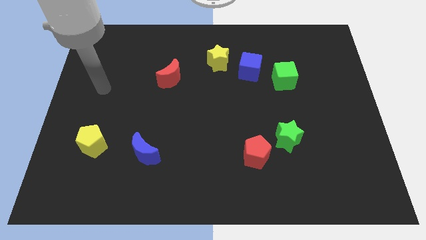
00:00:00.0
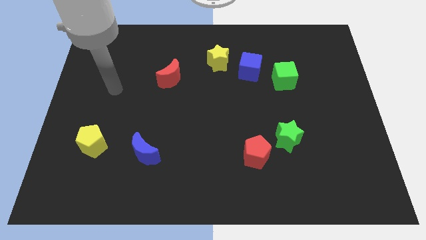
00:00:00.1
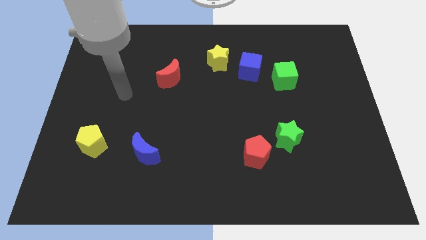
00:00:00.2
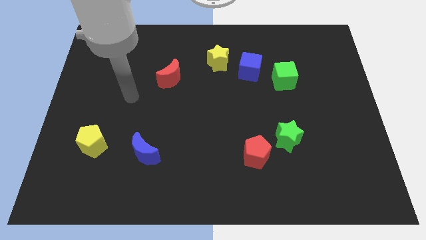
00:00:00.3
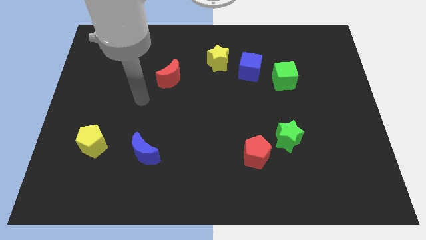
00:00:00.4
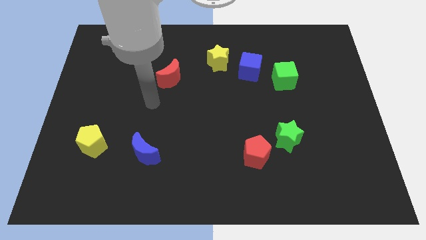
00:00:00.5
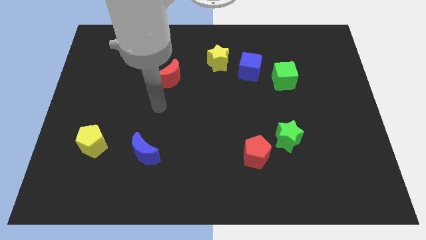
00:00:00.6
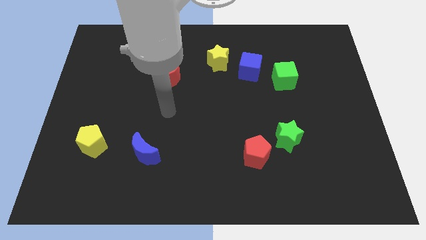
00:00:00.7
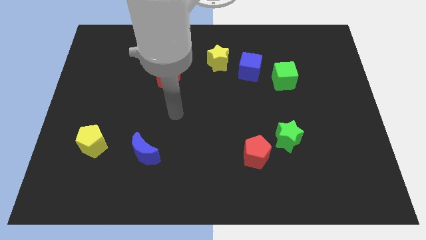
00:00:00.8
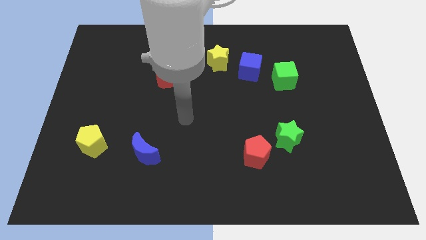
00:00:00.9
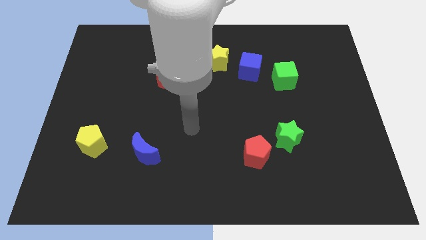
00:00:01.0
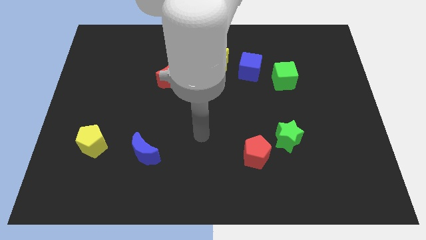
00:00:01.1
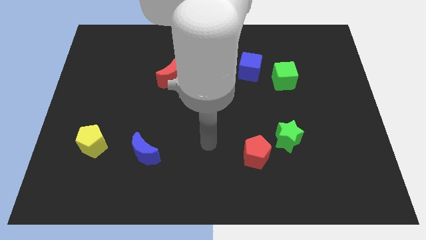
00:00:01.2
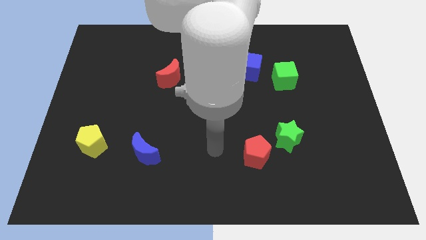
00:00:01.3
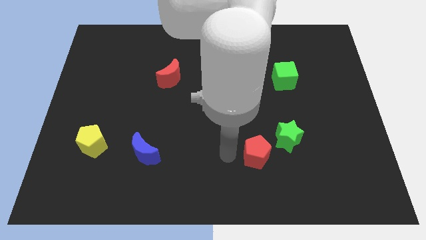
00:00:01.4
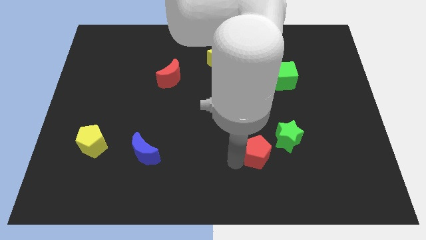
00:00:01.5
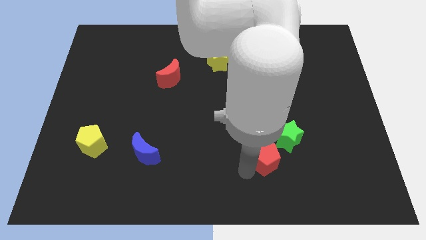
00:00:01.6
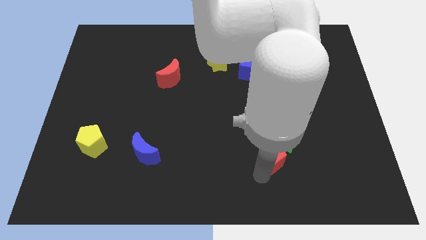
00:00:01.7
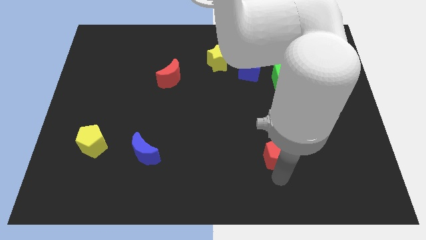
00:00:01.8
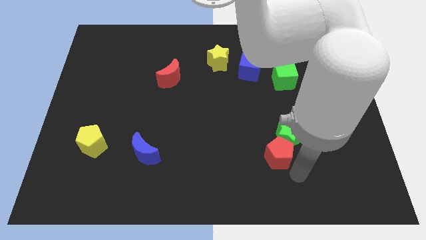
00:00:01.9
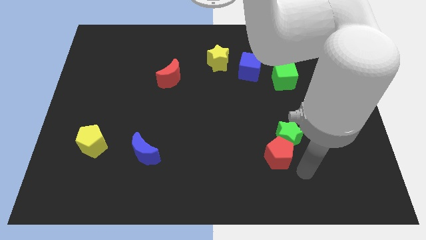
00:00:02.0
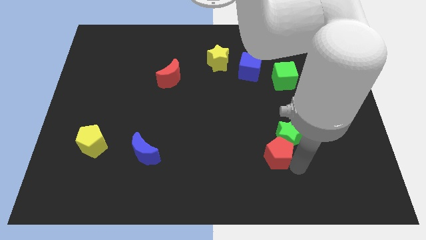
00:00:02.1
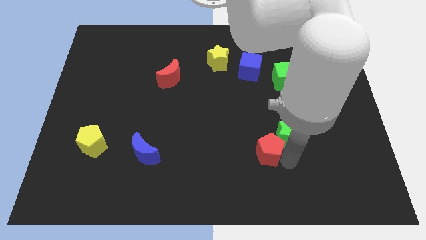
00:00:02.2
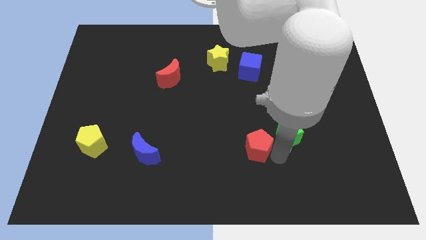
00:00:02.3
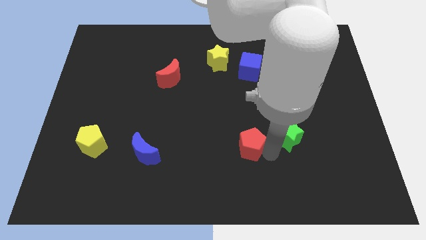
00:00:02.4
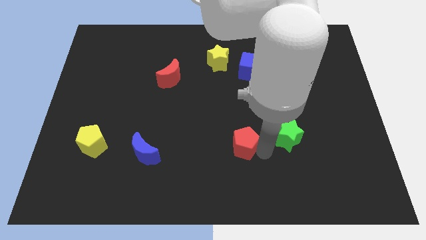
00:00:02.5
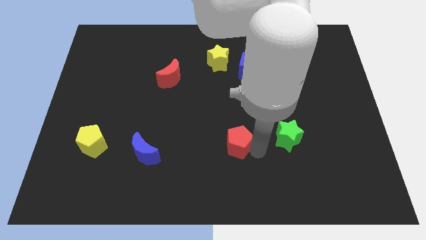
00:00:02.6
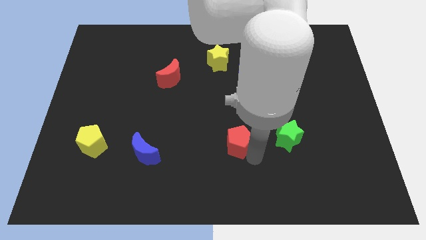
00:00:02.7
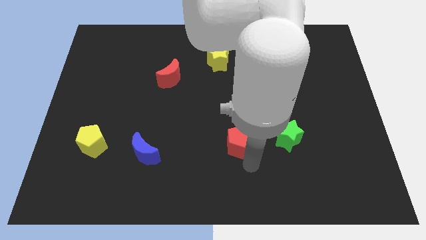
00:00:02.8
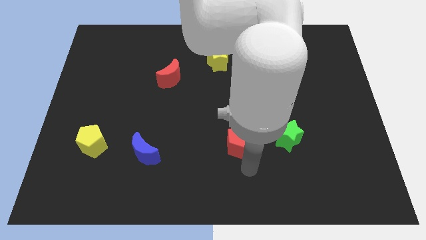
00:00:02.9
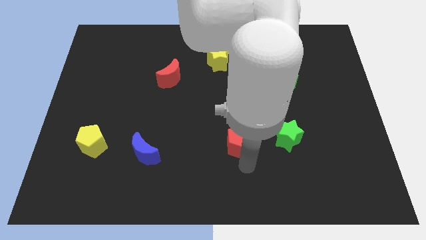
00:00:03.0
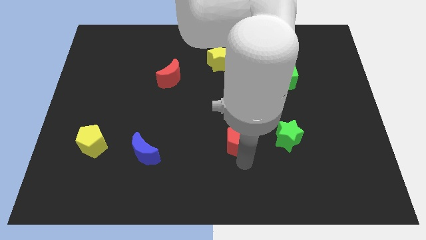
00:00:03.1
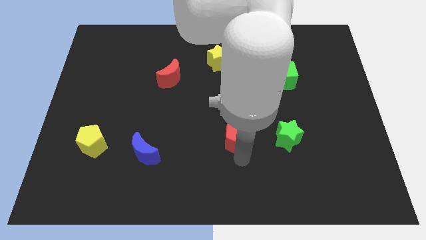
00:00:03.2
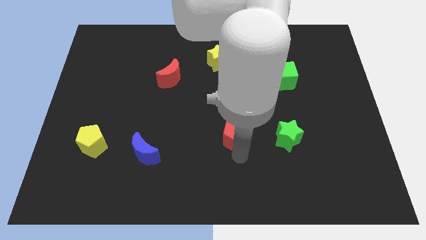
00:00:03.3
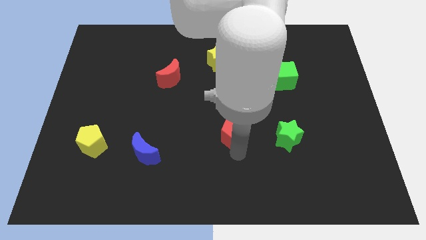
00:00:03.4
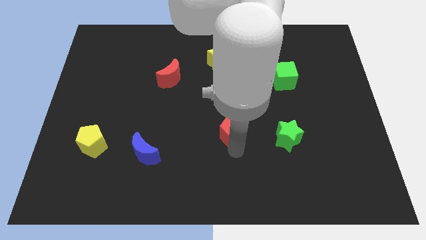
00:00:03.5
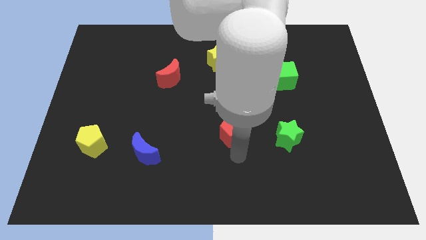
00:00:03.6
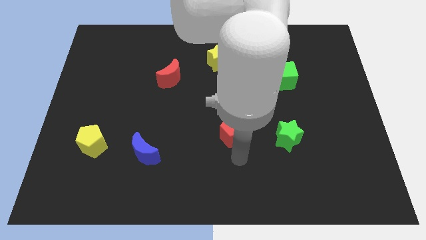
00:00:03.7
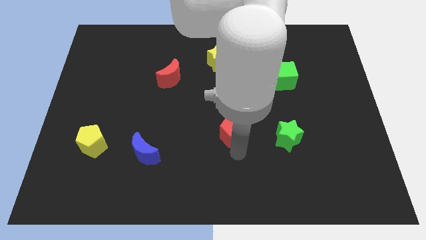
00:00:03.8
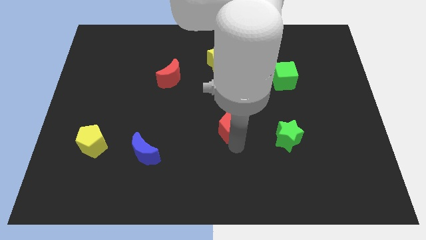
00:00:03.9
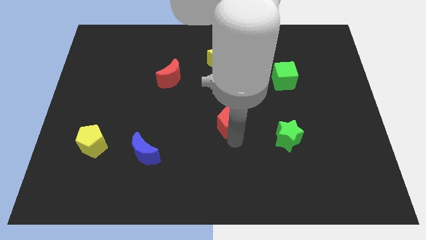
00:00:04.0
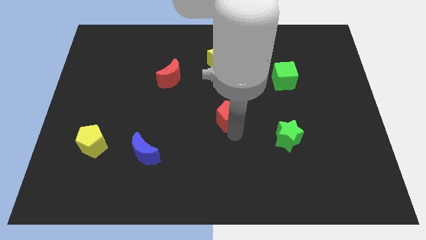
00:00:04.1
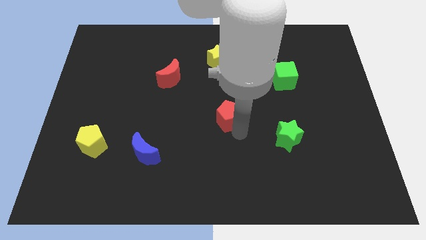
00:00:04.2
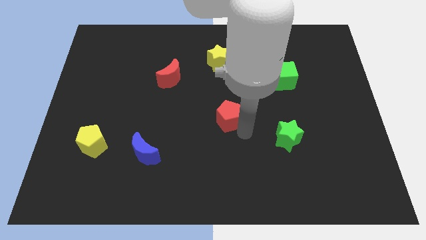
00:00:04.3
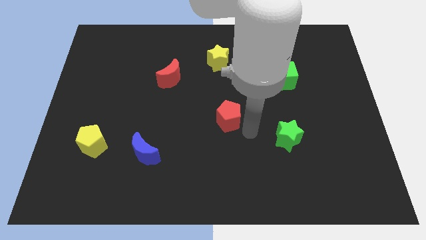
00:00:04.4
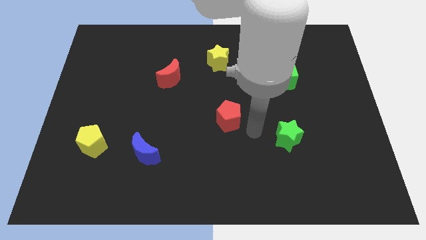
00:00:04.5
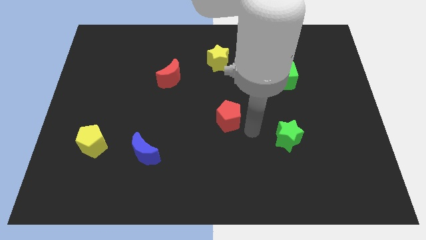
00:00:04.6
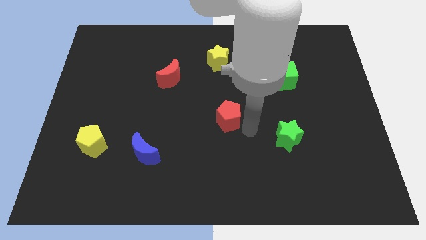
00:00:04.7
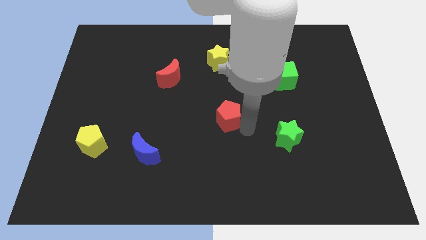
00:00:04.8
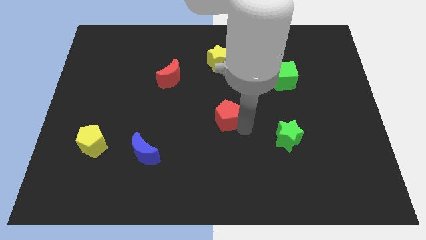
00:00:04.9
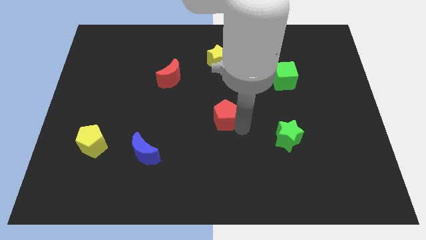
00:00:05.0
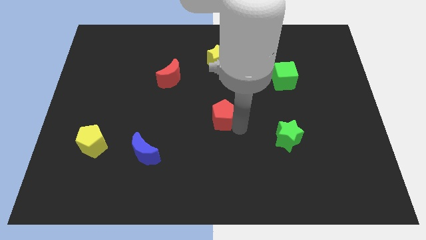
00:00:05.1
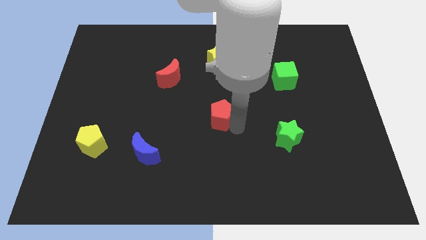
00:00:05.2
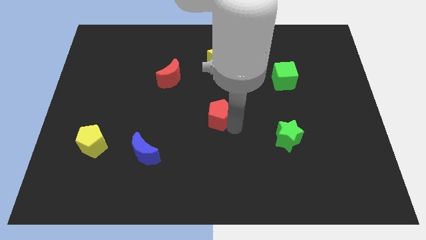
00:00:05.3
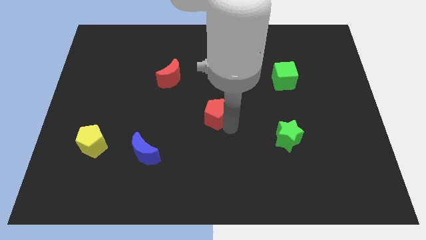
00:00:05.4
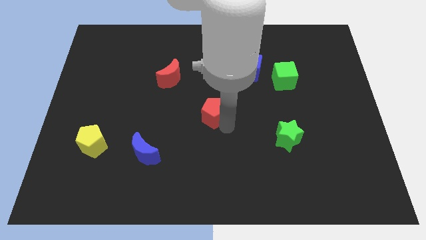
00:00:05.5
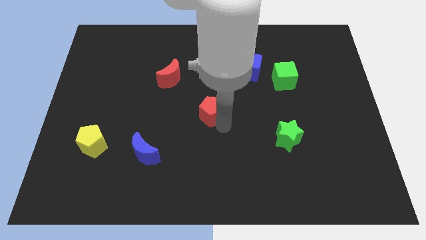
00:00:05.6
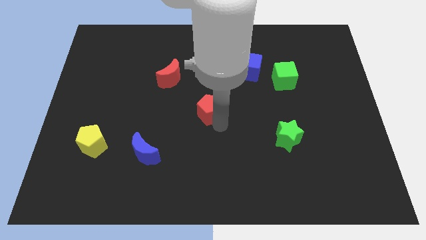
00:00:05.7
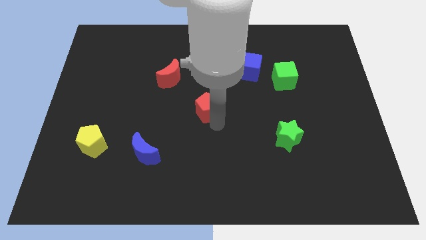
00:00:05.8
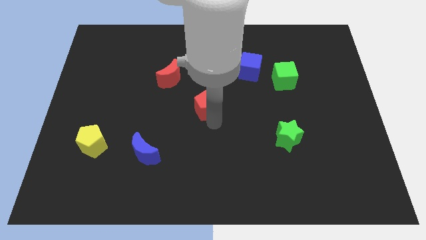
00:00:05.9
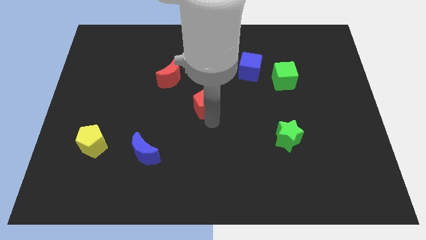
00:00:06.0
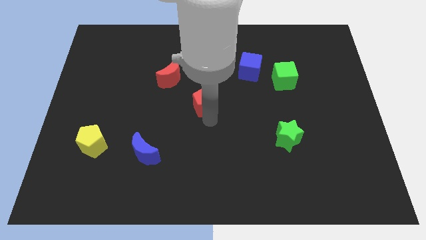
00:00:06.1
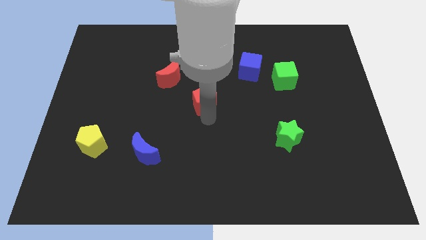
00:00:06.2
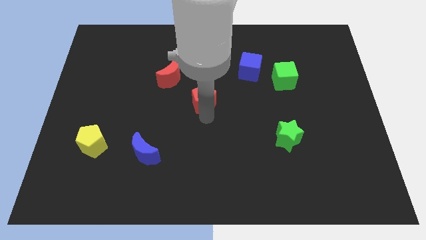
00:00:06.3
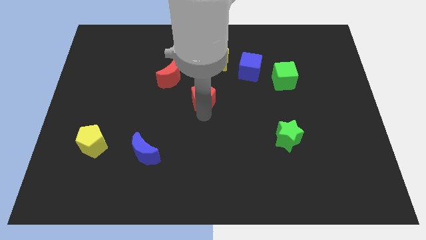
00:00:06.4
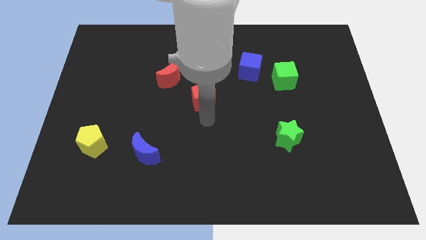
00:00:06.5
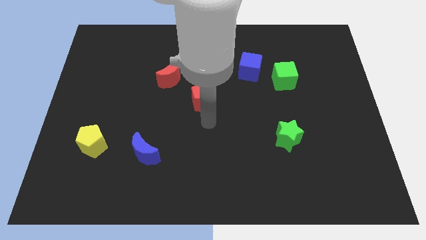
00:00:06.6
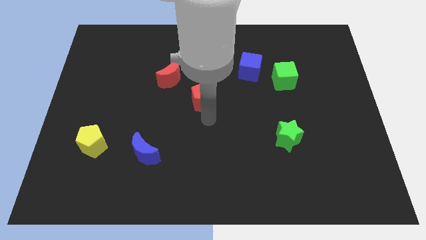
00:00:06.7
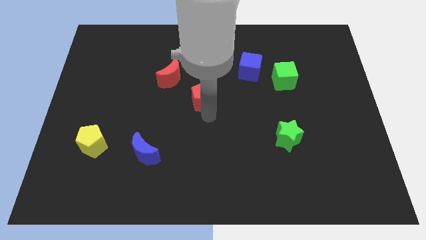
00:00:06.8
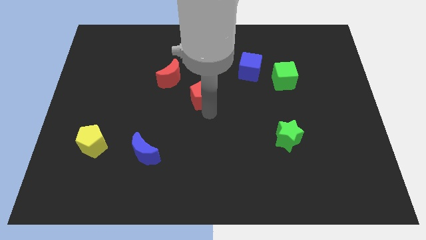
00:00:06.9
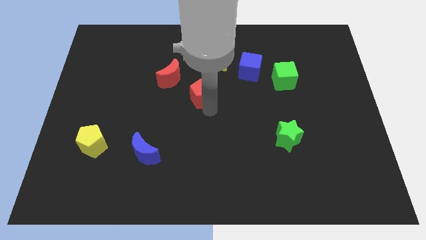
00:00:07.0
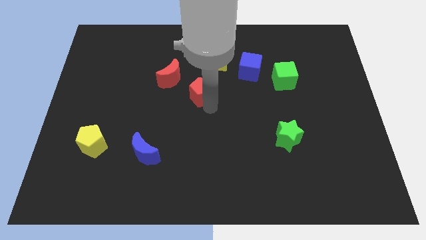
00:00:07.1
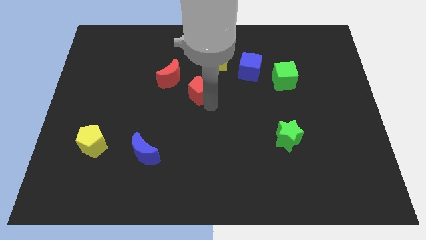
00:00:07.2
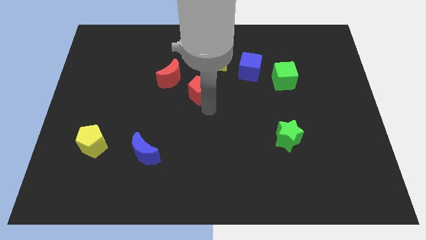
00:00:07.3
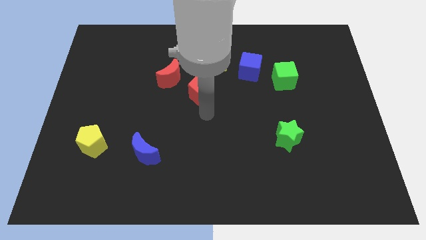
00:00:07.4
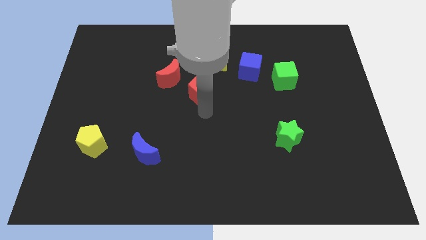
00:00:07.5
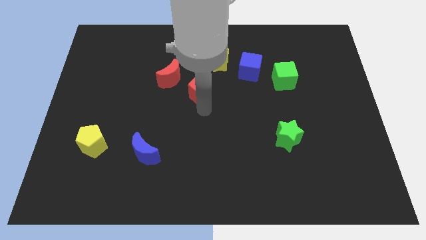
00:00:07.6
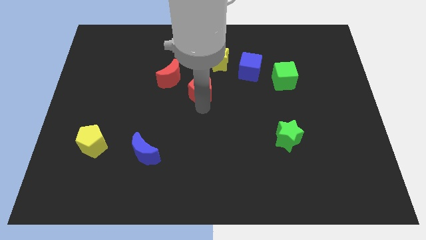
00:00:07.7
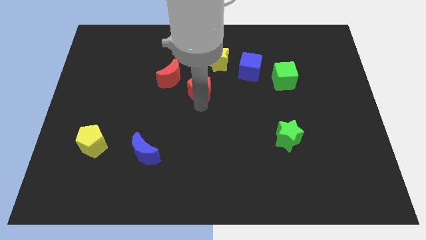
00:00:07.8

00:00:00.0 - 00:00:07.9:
move the red pentagon to the bottom left of the yellow star
